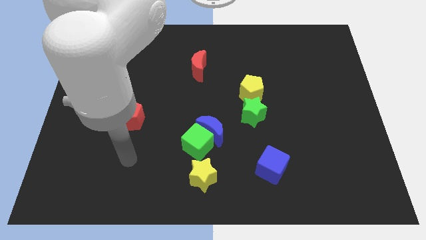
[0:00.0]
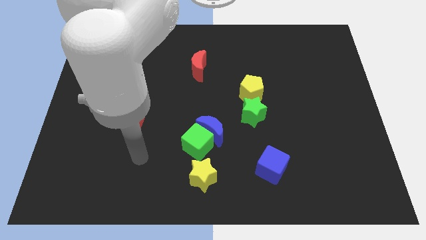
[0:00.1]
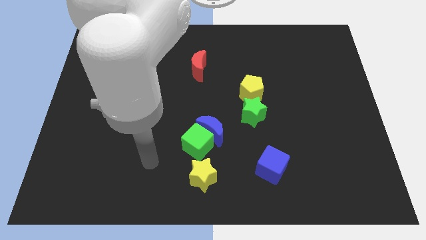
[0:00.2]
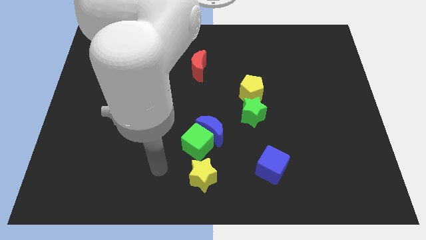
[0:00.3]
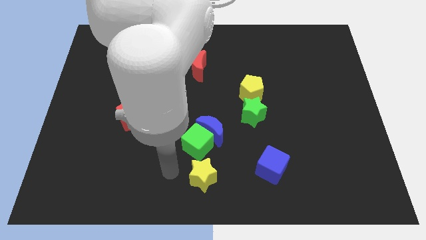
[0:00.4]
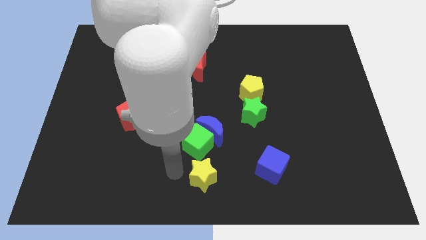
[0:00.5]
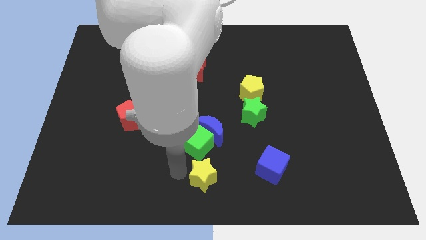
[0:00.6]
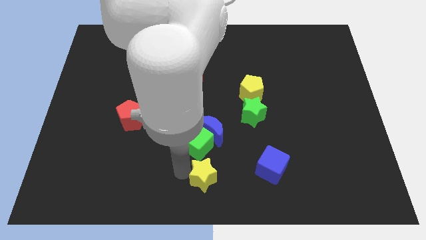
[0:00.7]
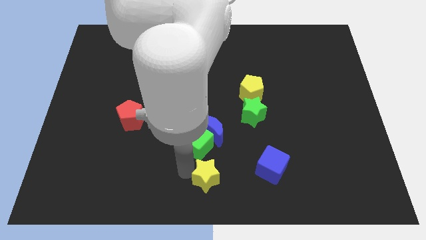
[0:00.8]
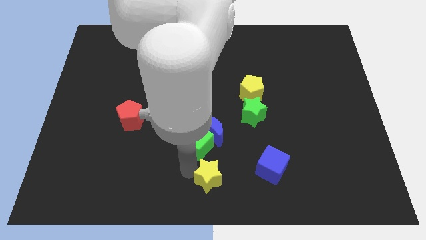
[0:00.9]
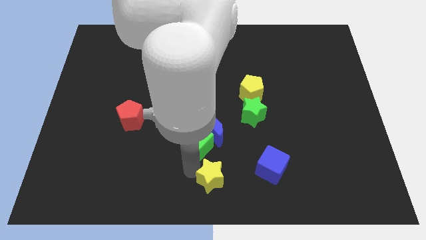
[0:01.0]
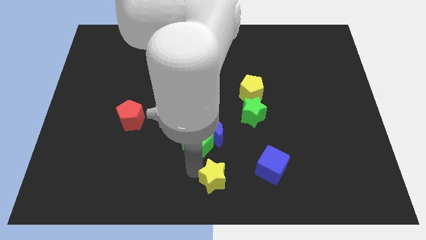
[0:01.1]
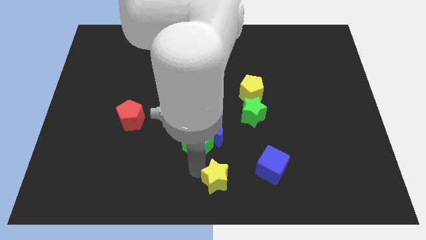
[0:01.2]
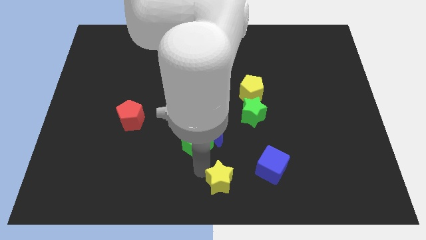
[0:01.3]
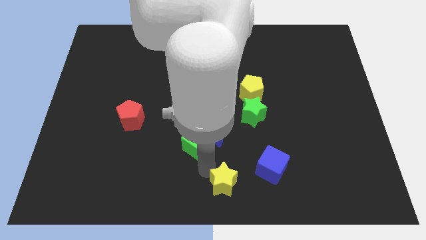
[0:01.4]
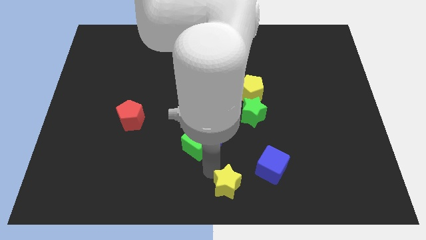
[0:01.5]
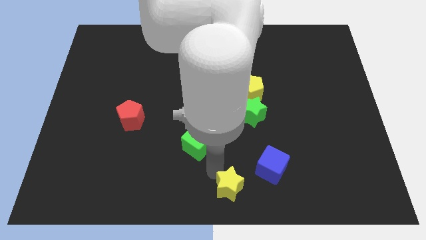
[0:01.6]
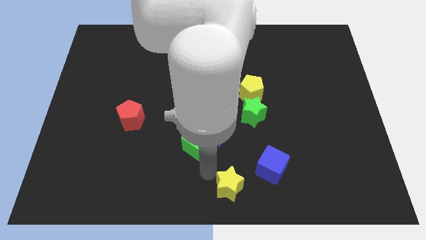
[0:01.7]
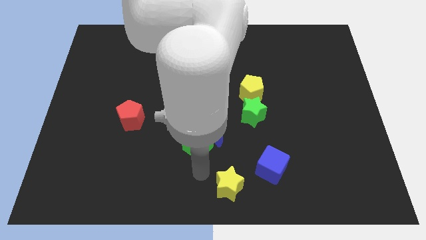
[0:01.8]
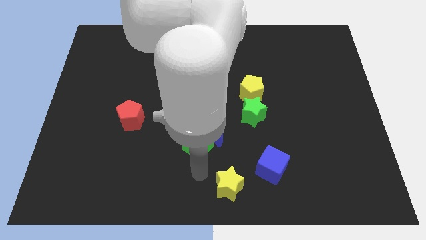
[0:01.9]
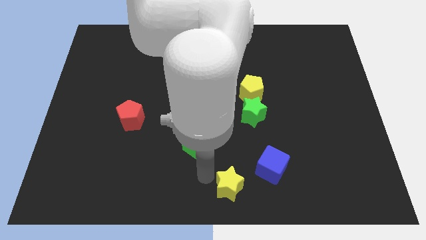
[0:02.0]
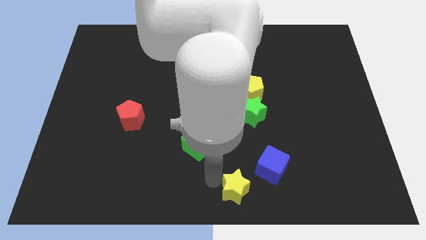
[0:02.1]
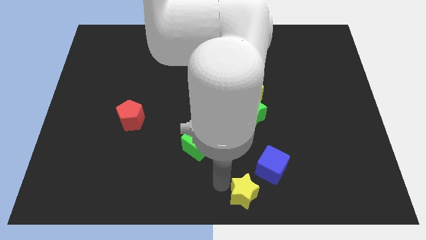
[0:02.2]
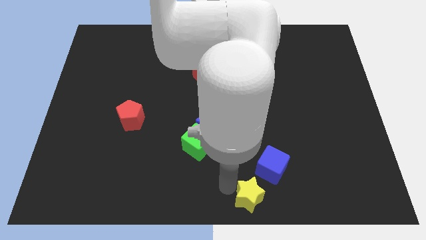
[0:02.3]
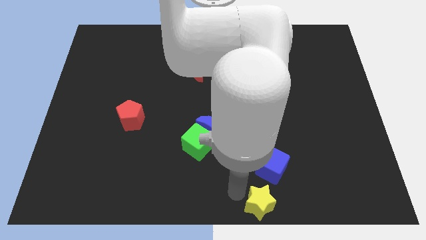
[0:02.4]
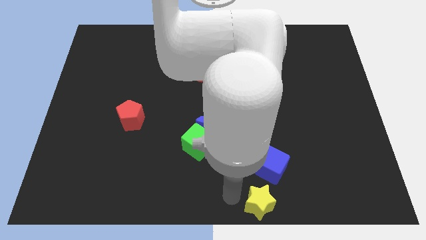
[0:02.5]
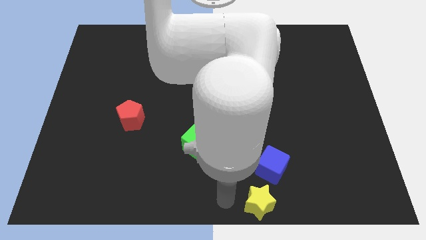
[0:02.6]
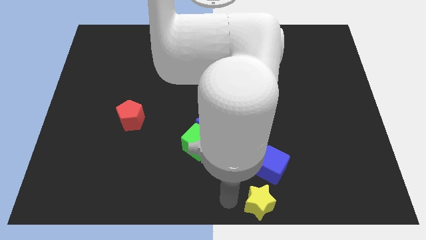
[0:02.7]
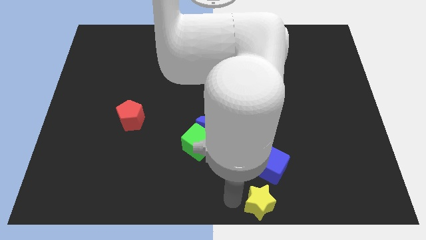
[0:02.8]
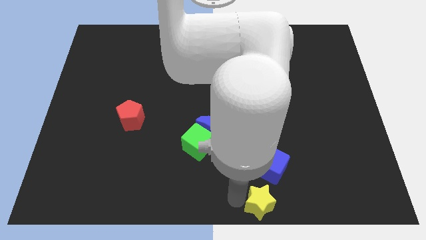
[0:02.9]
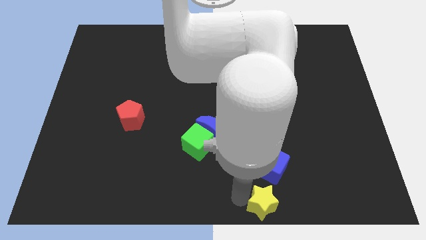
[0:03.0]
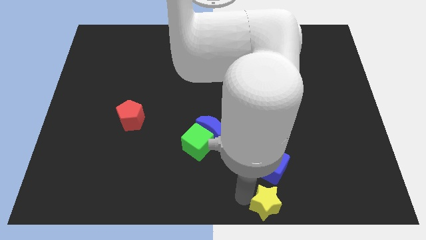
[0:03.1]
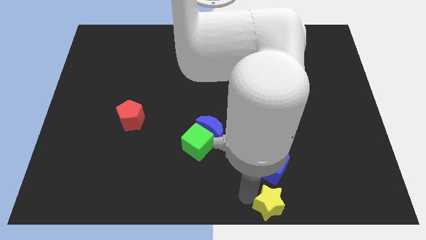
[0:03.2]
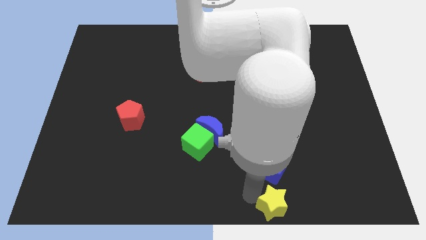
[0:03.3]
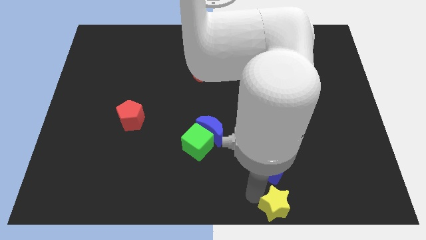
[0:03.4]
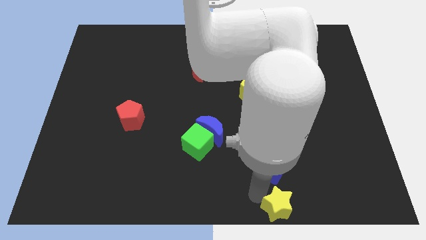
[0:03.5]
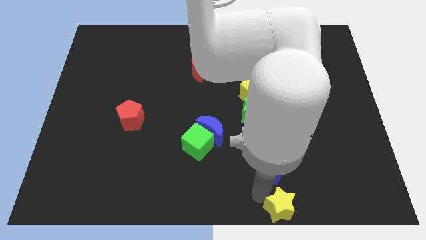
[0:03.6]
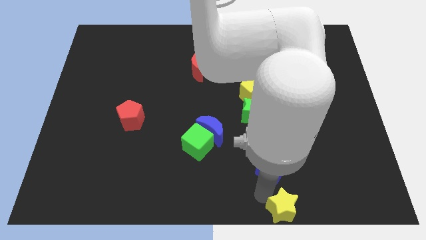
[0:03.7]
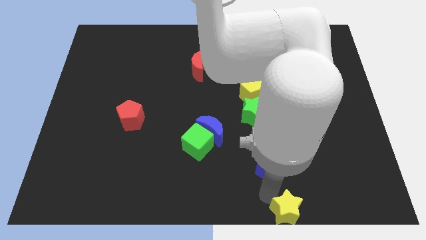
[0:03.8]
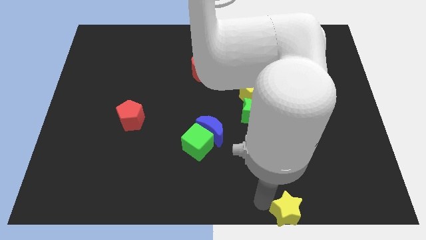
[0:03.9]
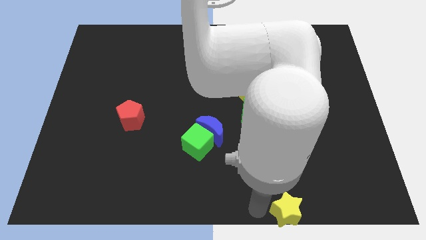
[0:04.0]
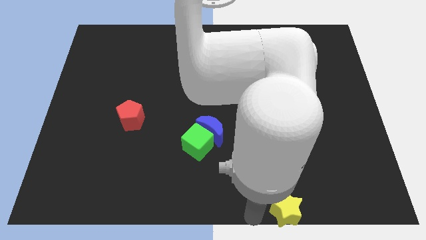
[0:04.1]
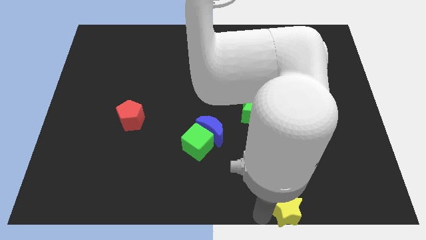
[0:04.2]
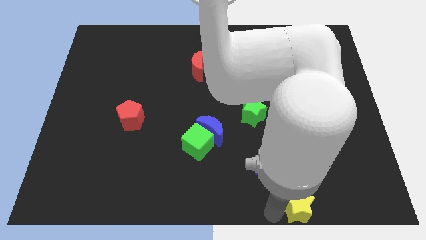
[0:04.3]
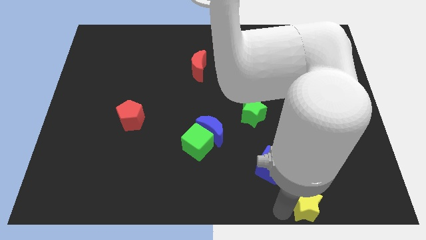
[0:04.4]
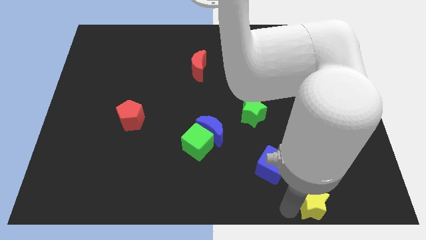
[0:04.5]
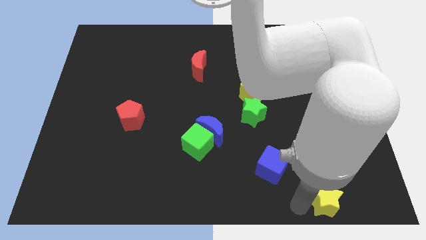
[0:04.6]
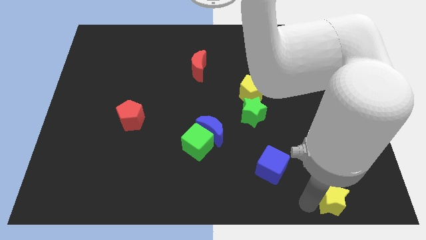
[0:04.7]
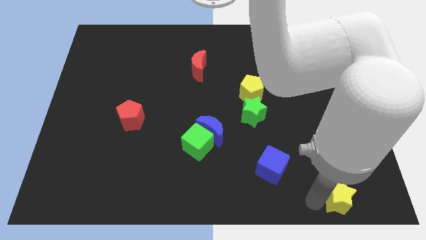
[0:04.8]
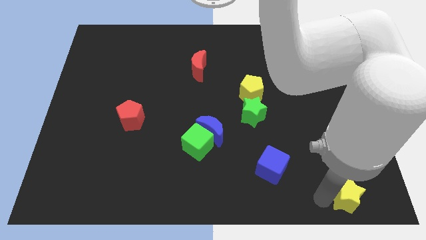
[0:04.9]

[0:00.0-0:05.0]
move the yellow star to the bottom right corner

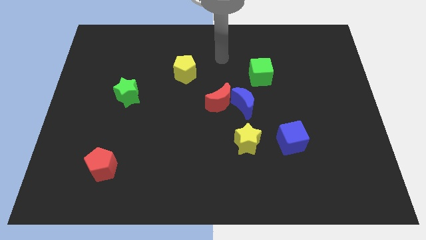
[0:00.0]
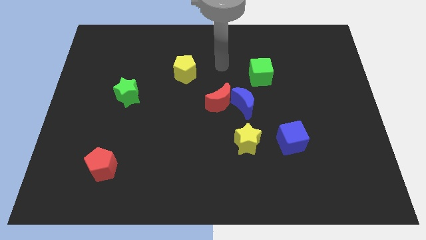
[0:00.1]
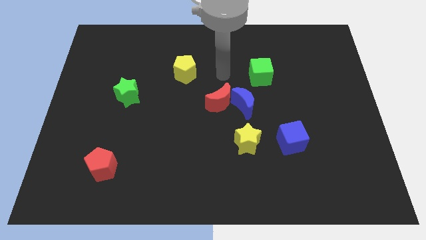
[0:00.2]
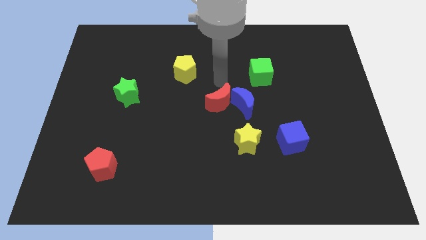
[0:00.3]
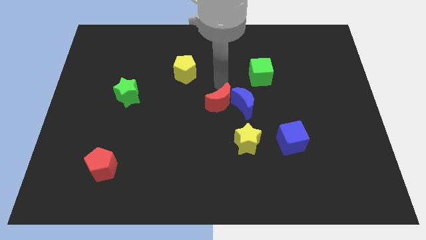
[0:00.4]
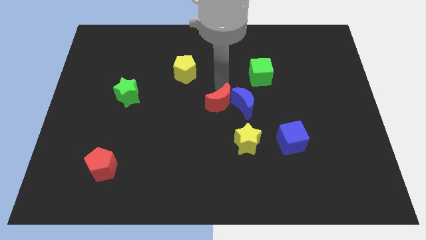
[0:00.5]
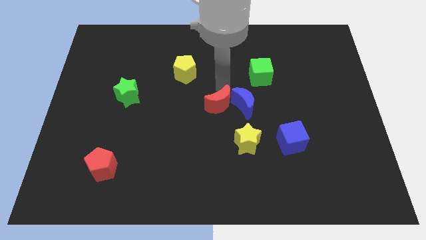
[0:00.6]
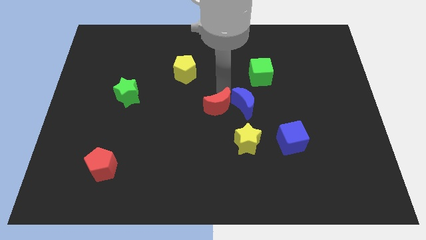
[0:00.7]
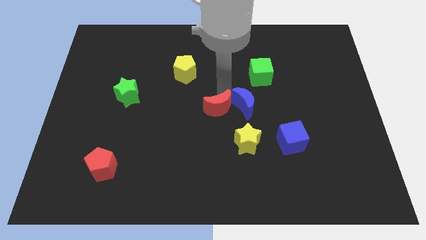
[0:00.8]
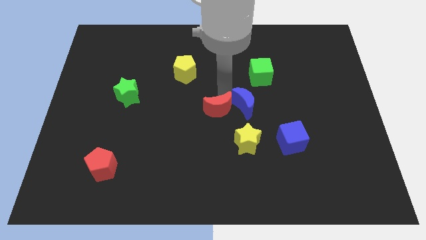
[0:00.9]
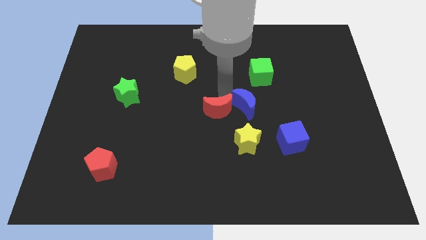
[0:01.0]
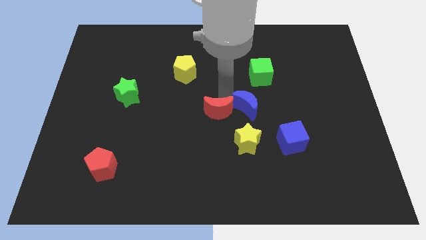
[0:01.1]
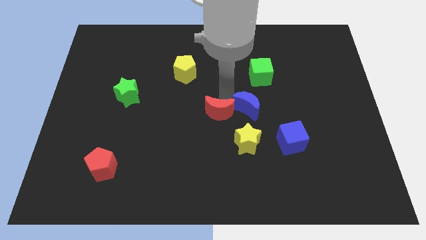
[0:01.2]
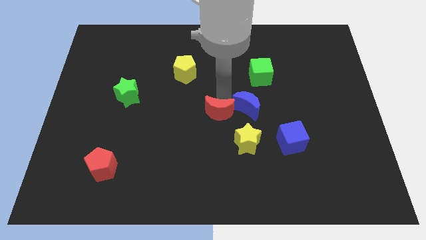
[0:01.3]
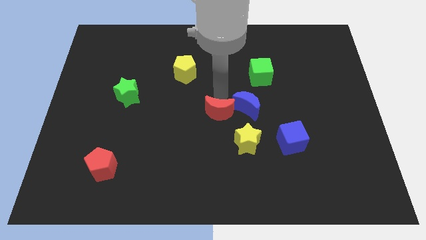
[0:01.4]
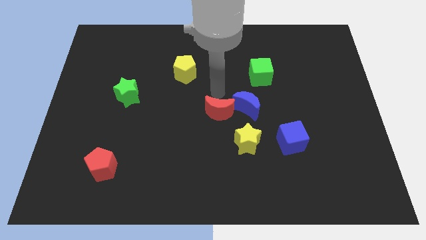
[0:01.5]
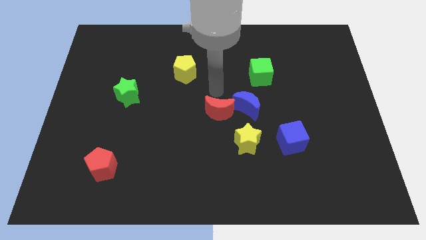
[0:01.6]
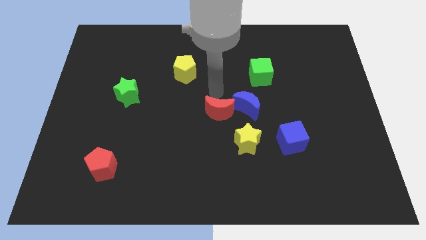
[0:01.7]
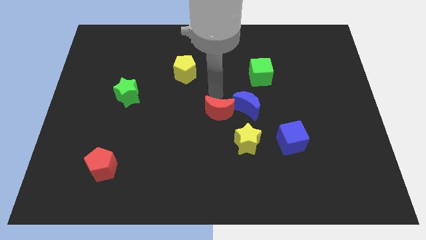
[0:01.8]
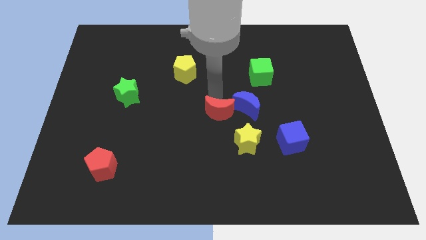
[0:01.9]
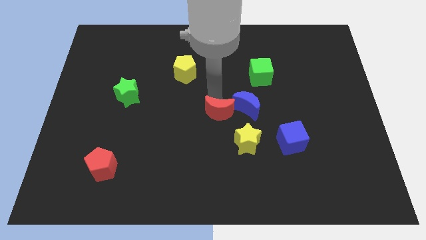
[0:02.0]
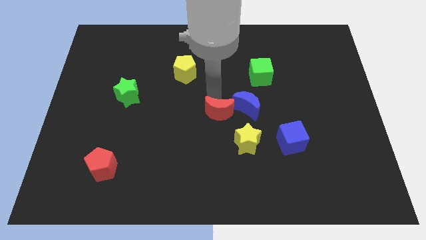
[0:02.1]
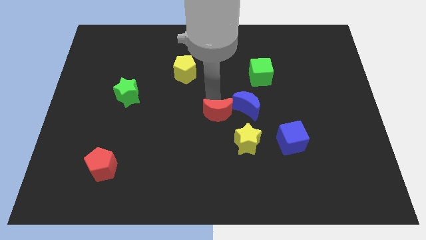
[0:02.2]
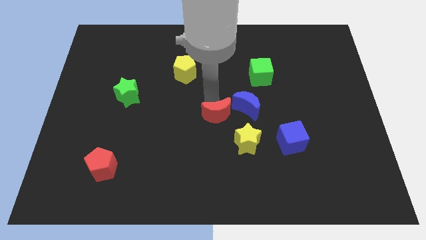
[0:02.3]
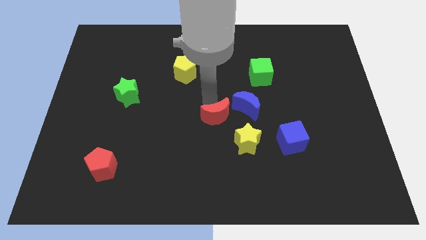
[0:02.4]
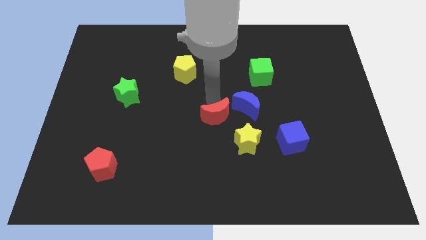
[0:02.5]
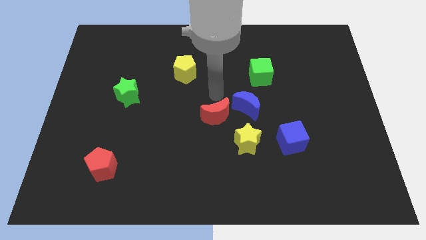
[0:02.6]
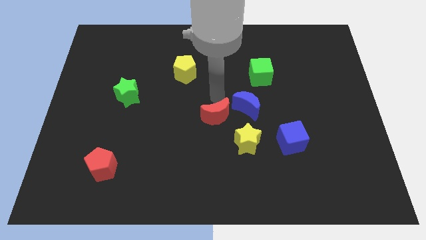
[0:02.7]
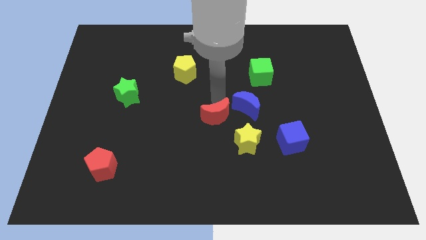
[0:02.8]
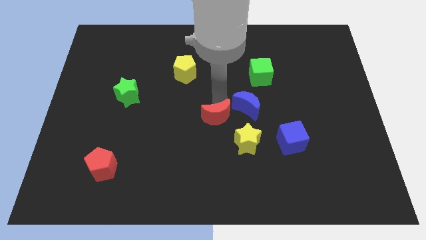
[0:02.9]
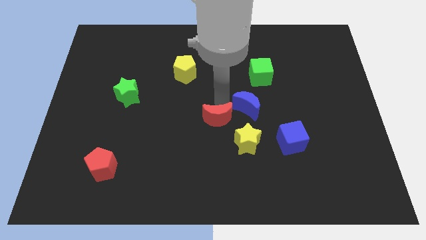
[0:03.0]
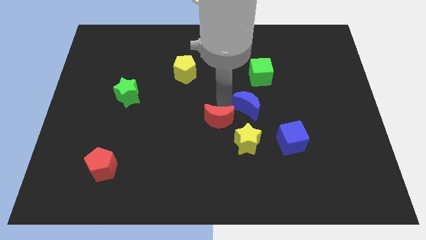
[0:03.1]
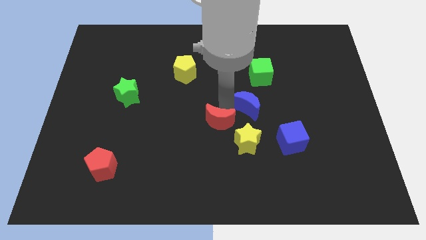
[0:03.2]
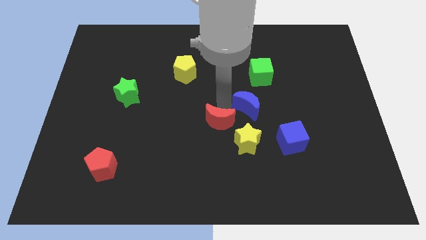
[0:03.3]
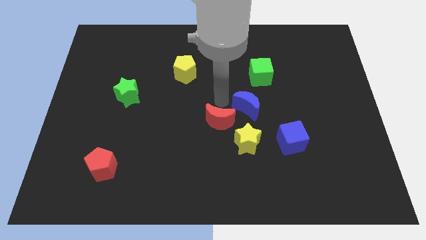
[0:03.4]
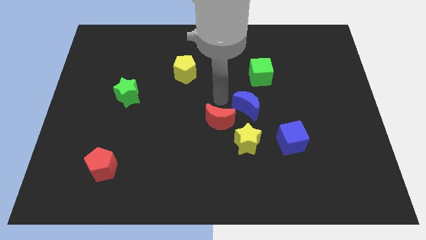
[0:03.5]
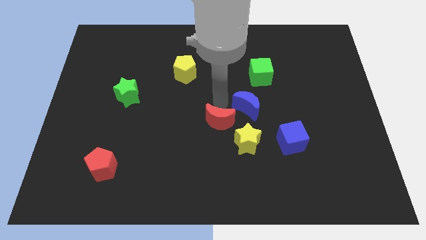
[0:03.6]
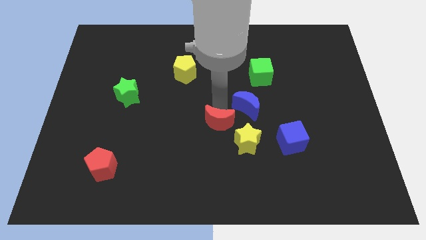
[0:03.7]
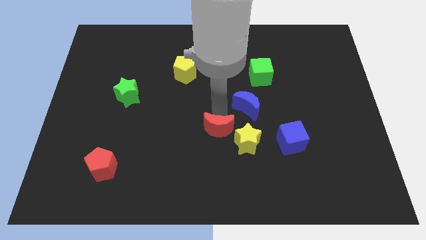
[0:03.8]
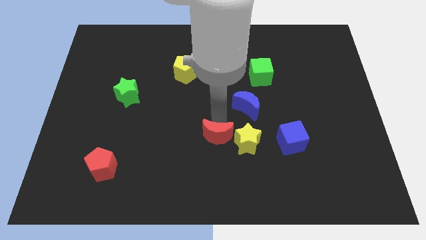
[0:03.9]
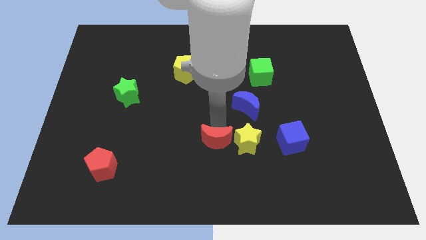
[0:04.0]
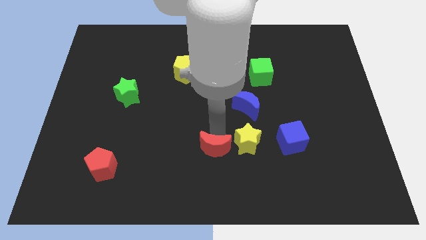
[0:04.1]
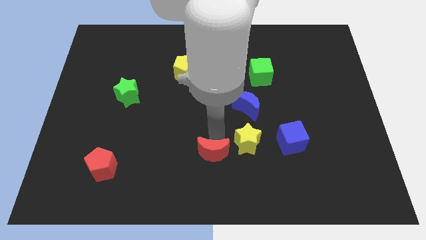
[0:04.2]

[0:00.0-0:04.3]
move the red moon to the bottom
